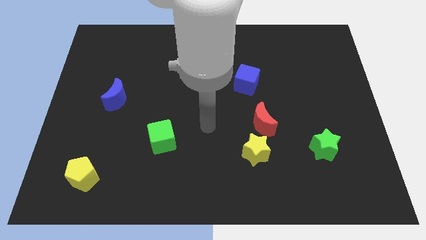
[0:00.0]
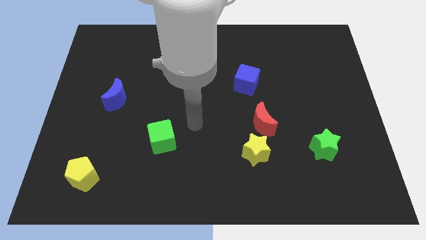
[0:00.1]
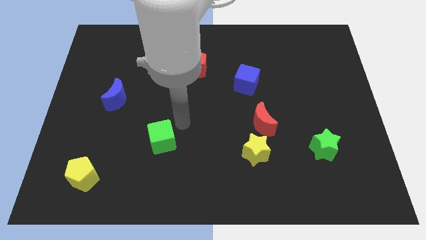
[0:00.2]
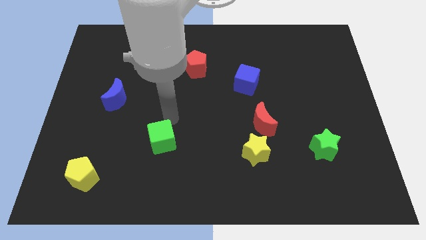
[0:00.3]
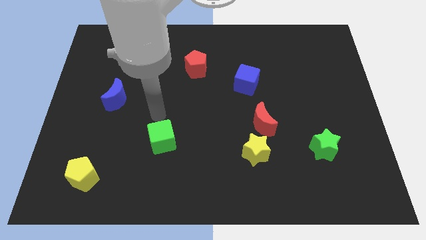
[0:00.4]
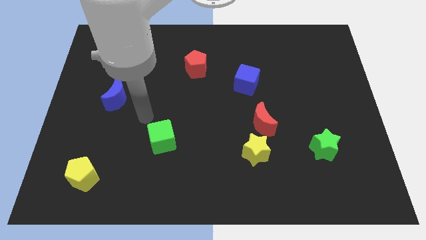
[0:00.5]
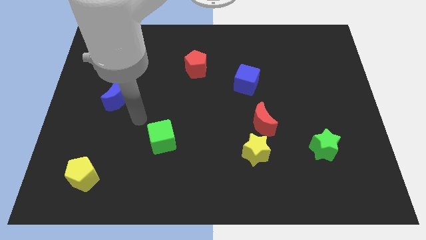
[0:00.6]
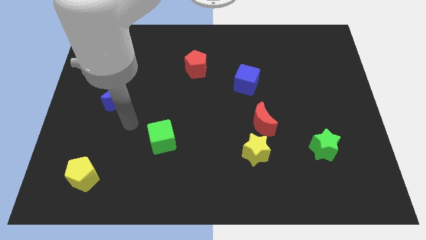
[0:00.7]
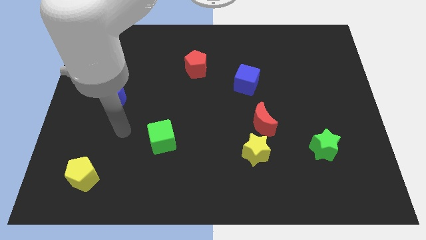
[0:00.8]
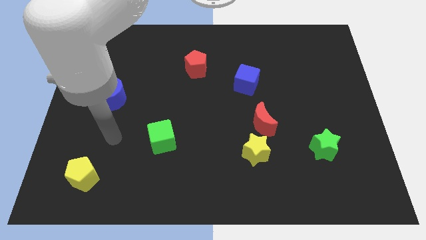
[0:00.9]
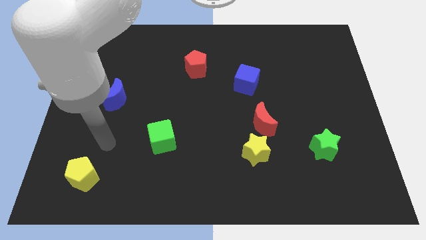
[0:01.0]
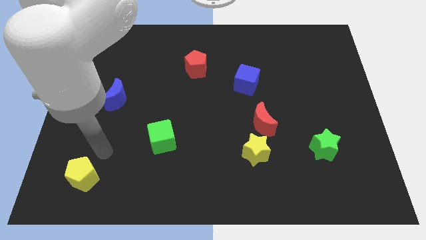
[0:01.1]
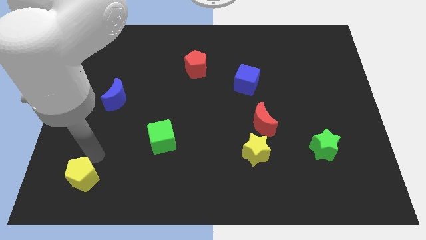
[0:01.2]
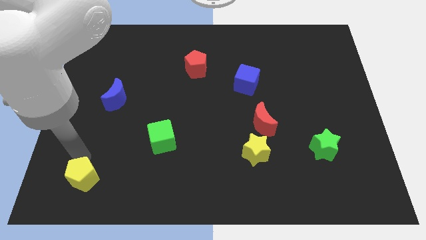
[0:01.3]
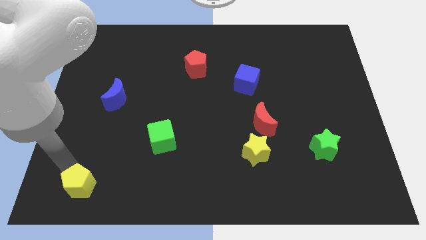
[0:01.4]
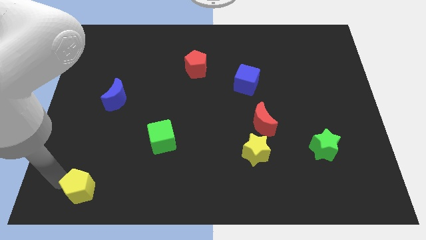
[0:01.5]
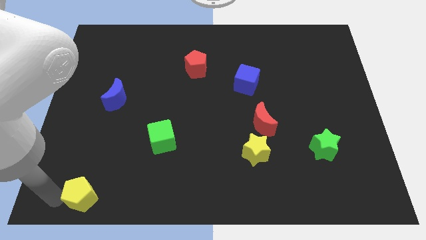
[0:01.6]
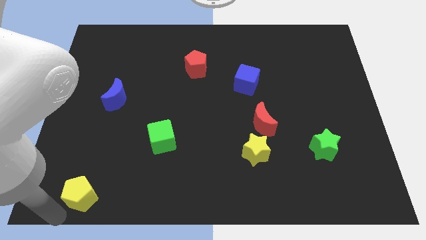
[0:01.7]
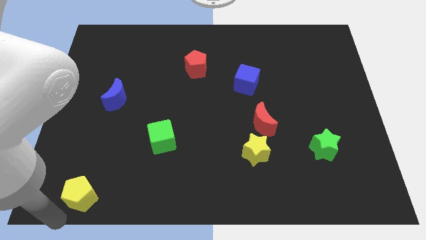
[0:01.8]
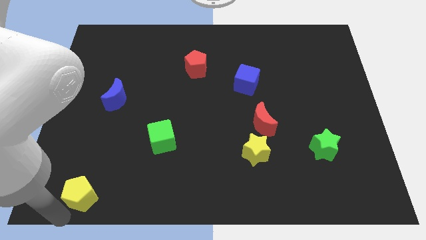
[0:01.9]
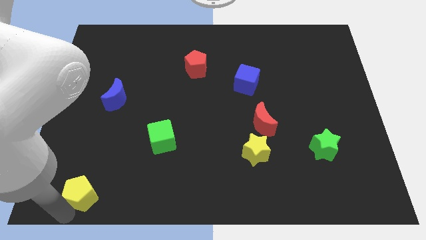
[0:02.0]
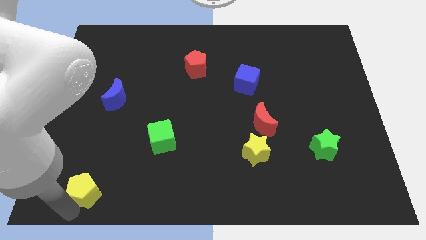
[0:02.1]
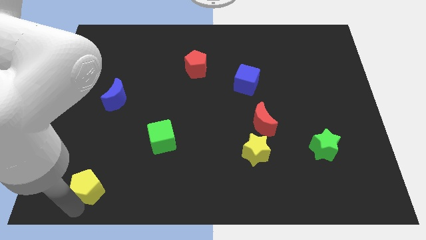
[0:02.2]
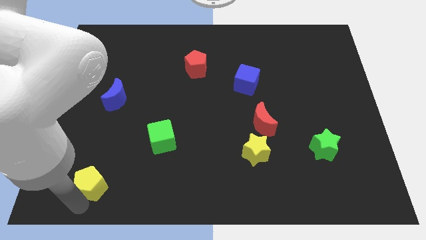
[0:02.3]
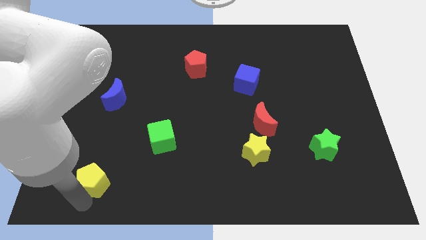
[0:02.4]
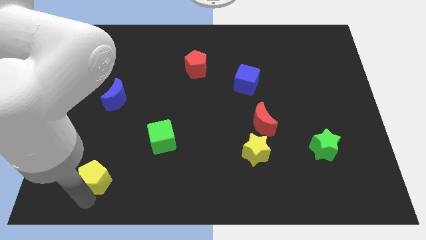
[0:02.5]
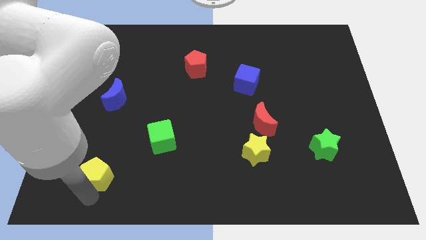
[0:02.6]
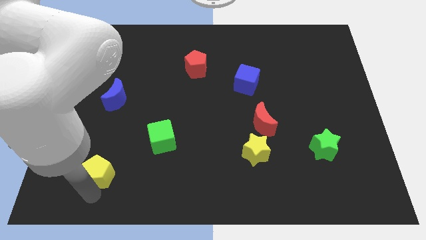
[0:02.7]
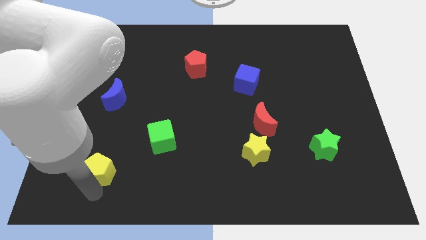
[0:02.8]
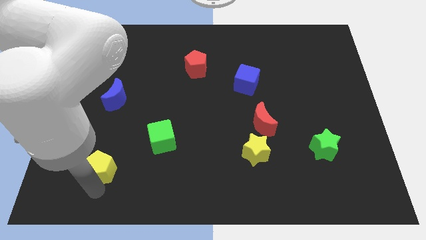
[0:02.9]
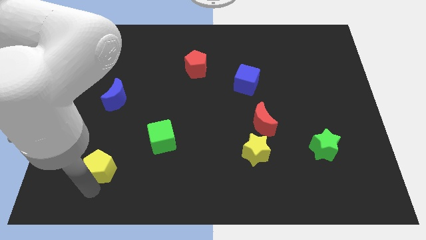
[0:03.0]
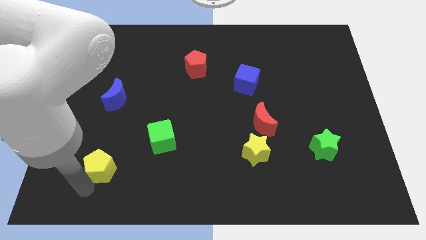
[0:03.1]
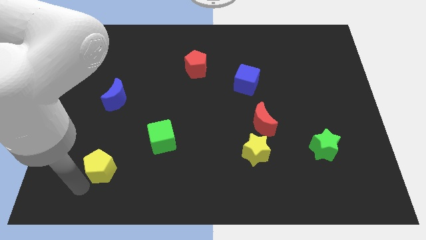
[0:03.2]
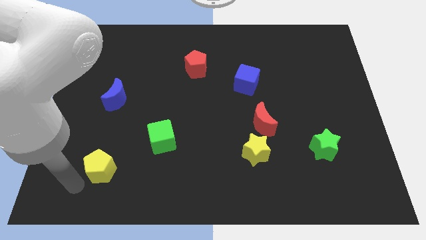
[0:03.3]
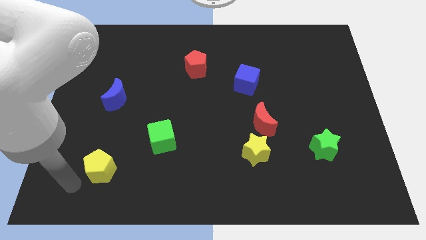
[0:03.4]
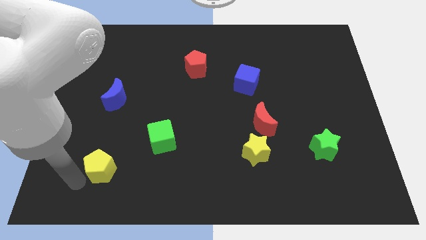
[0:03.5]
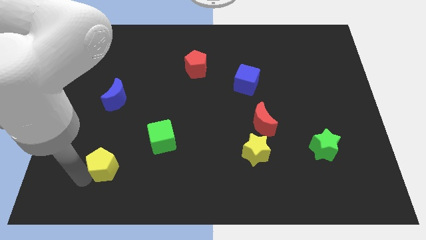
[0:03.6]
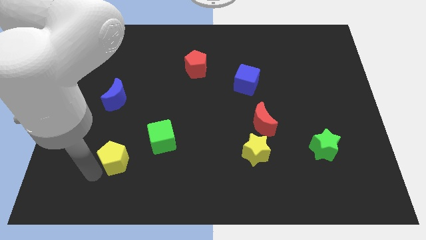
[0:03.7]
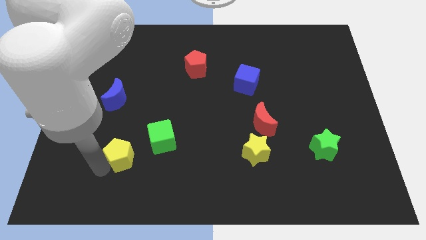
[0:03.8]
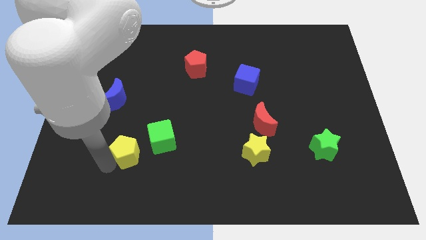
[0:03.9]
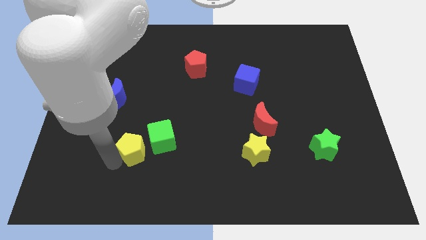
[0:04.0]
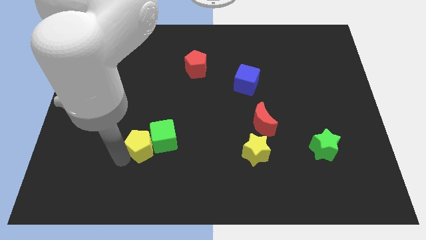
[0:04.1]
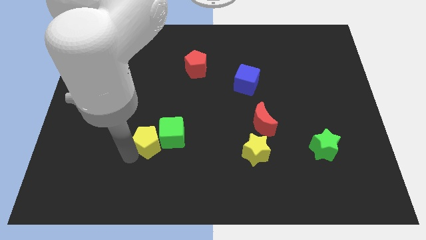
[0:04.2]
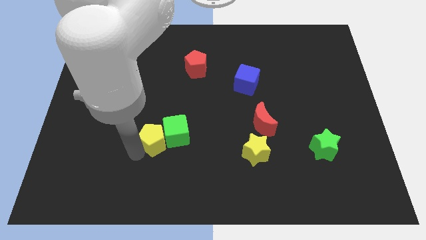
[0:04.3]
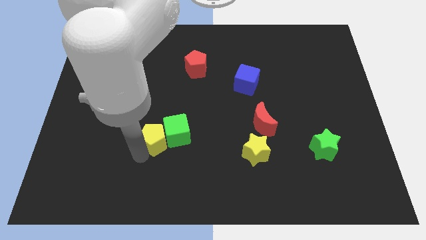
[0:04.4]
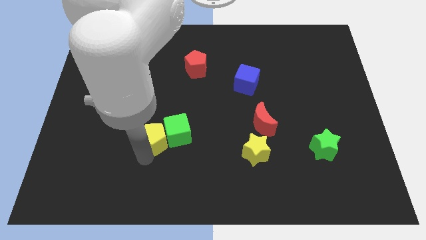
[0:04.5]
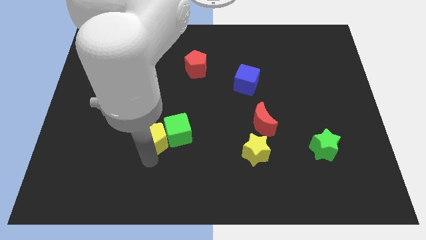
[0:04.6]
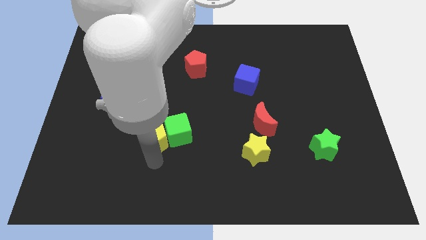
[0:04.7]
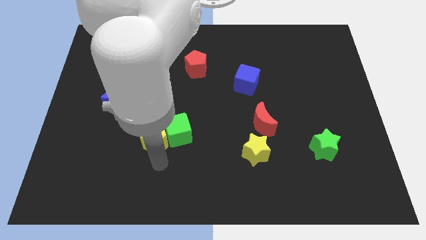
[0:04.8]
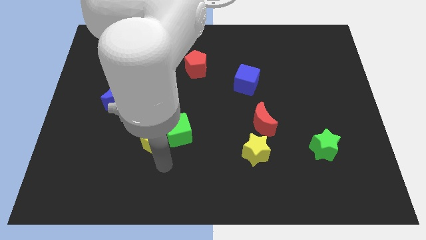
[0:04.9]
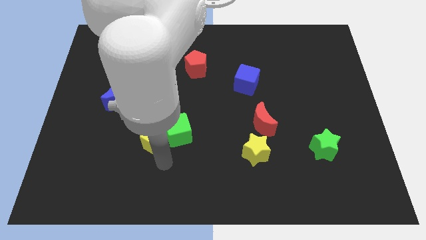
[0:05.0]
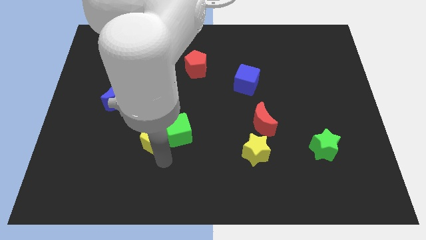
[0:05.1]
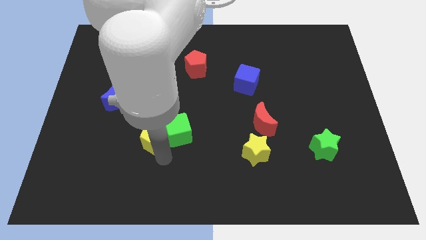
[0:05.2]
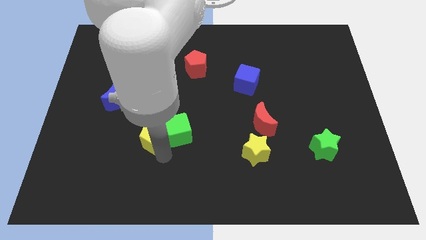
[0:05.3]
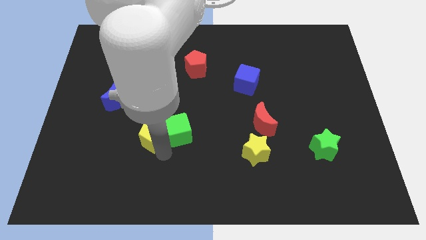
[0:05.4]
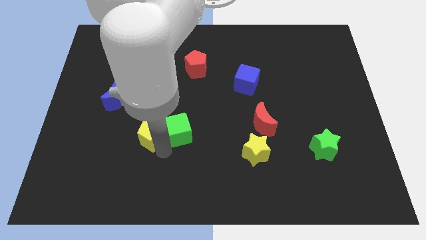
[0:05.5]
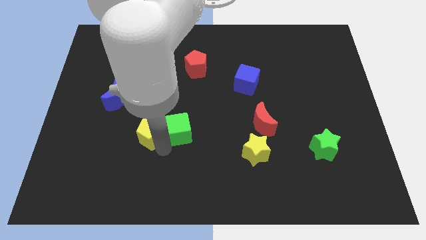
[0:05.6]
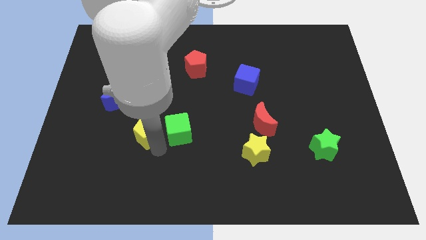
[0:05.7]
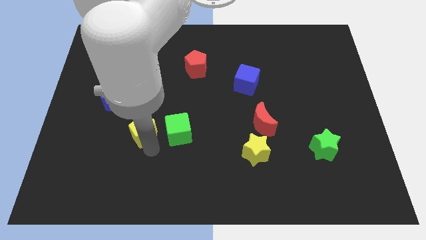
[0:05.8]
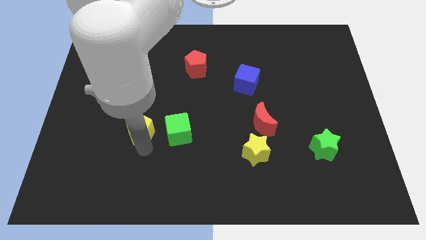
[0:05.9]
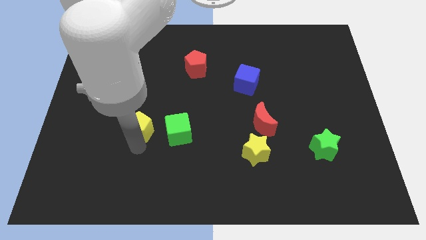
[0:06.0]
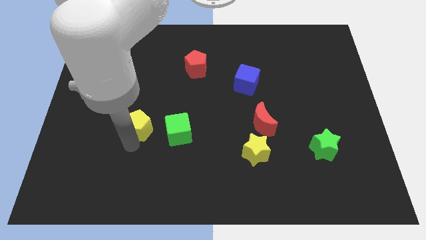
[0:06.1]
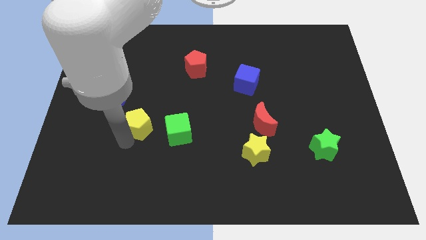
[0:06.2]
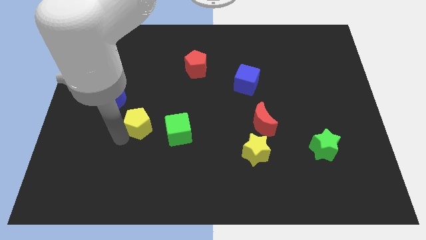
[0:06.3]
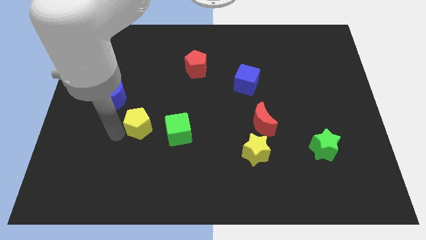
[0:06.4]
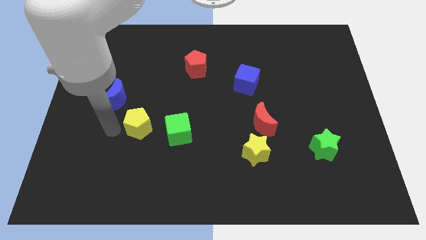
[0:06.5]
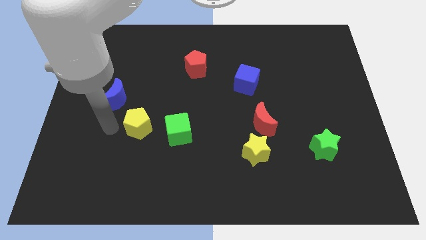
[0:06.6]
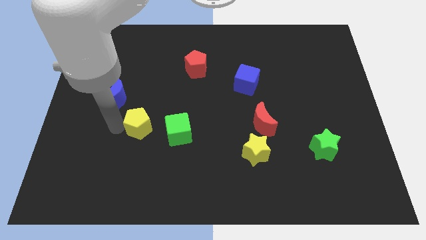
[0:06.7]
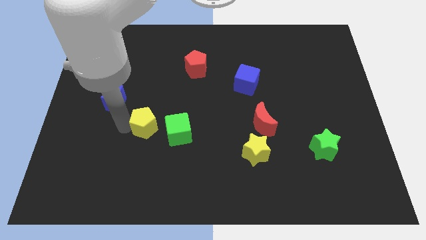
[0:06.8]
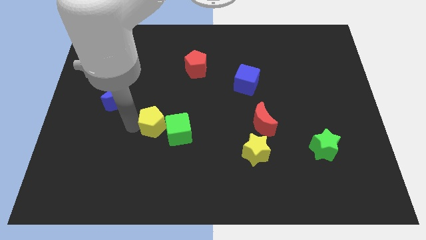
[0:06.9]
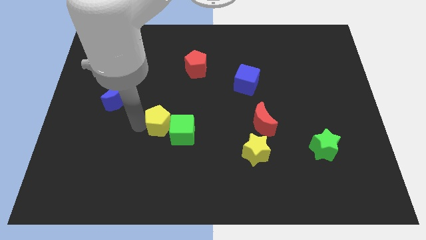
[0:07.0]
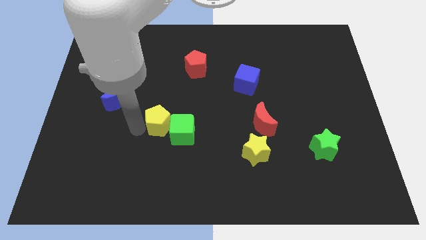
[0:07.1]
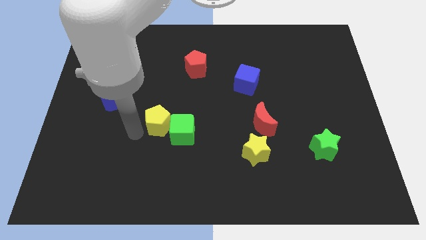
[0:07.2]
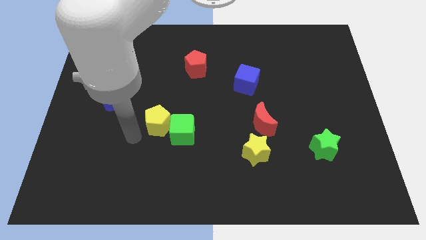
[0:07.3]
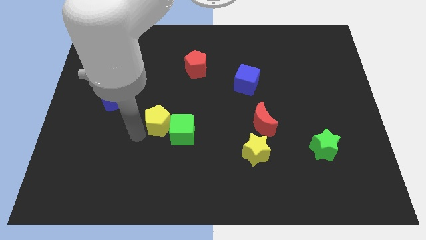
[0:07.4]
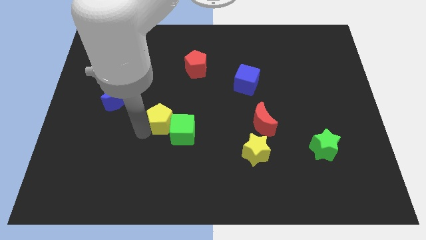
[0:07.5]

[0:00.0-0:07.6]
move the yellow pentagon up and then right

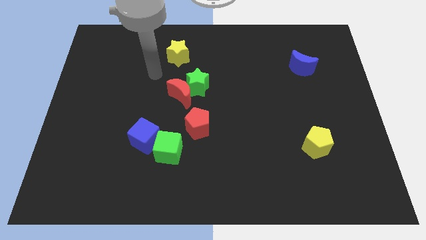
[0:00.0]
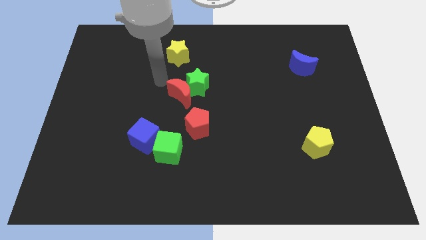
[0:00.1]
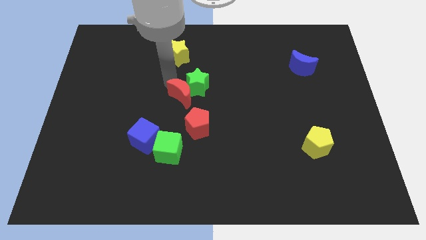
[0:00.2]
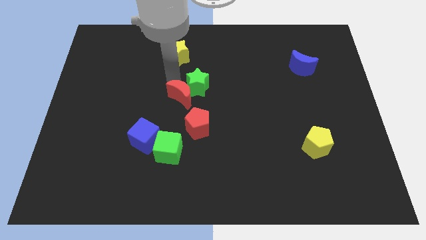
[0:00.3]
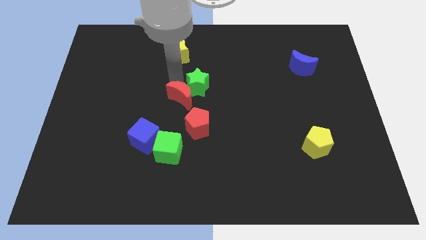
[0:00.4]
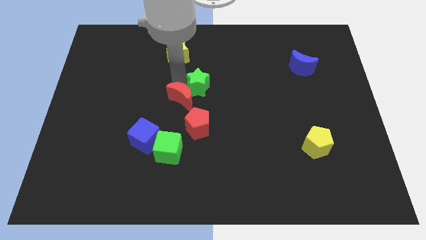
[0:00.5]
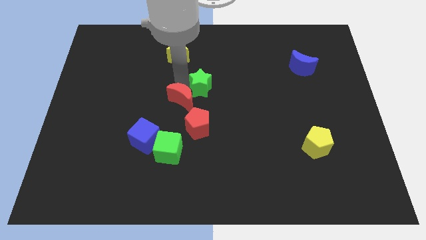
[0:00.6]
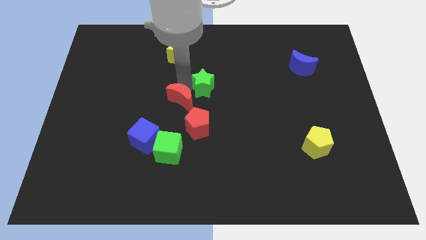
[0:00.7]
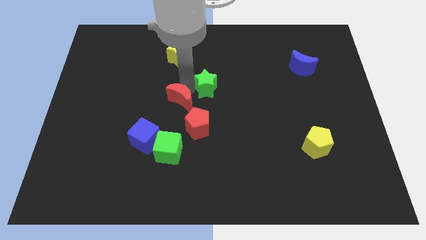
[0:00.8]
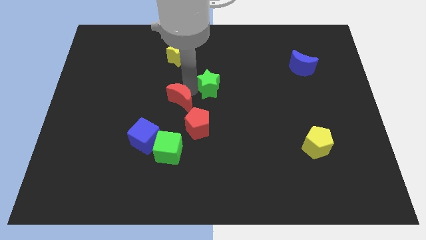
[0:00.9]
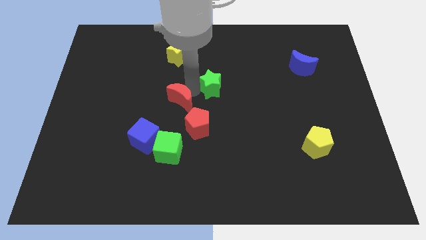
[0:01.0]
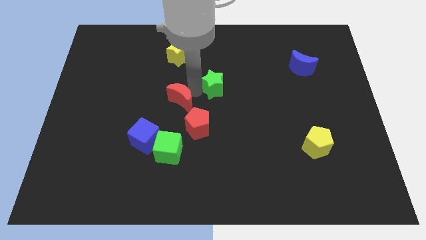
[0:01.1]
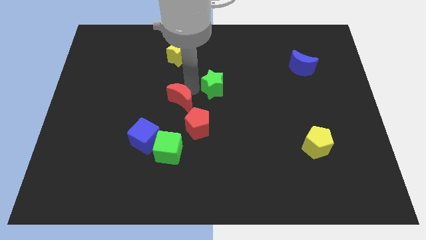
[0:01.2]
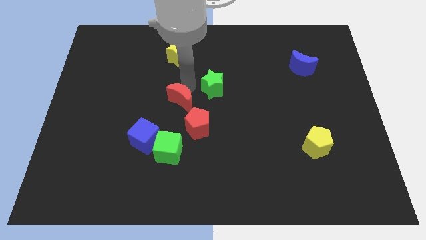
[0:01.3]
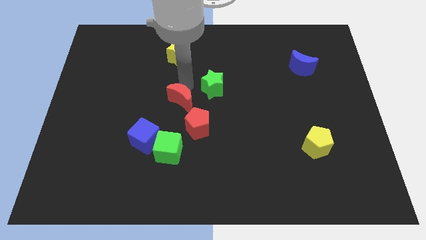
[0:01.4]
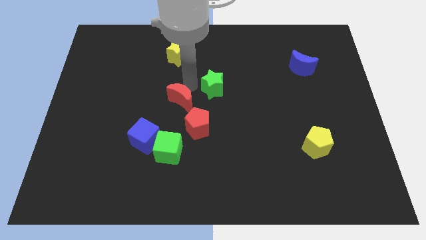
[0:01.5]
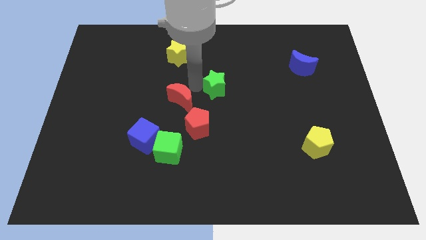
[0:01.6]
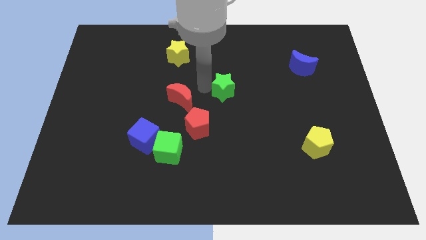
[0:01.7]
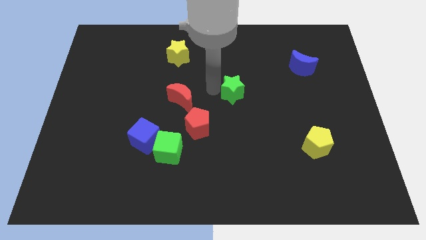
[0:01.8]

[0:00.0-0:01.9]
slide the green star right slightly
